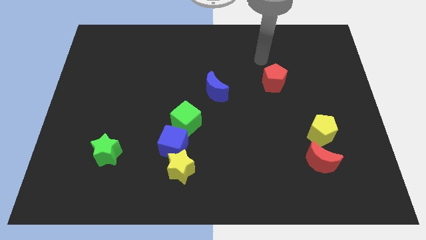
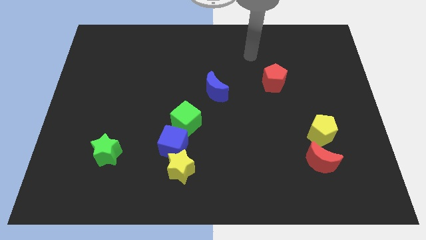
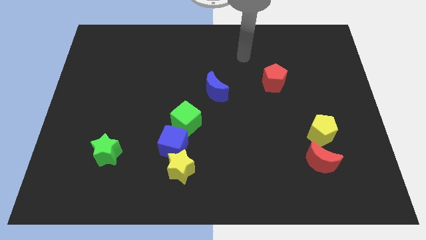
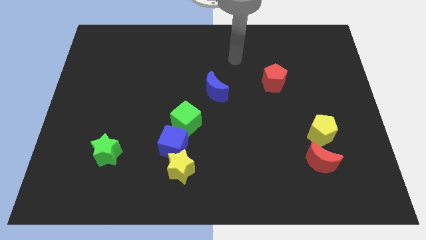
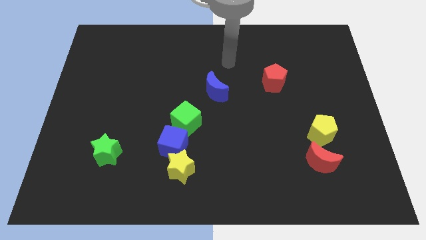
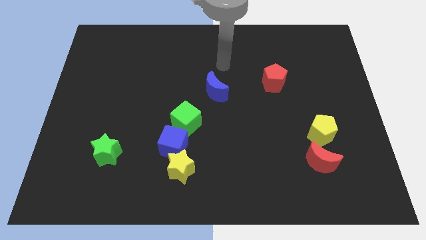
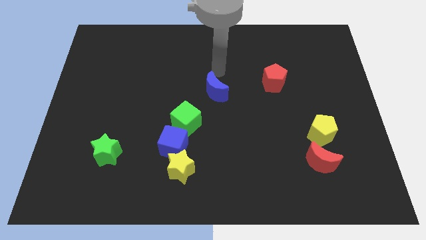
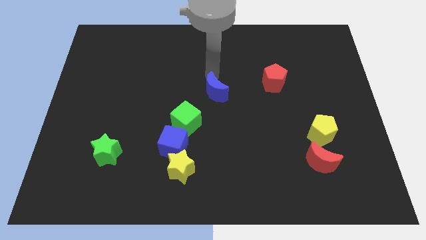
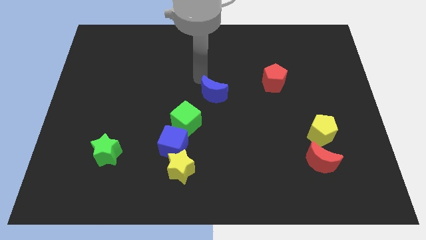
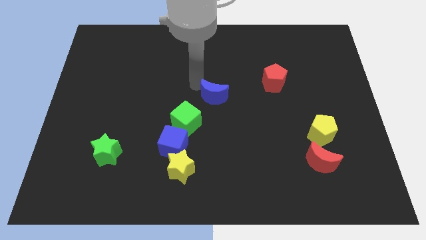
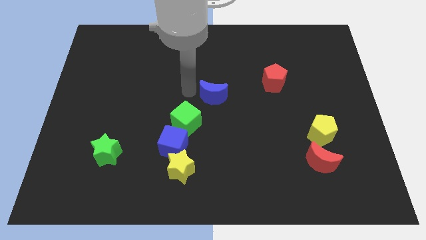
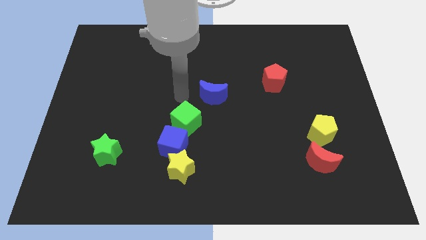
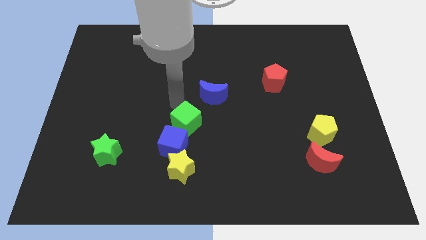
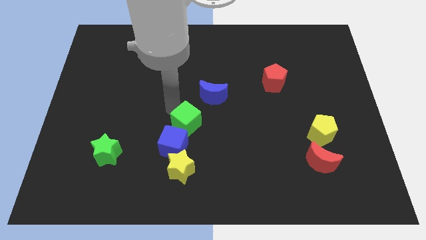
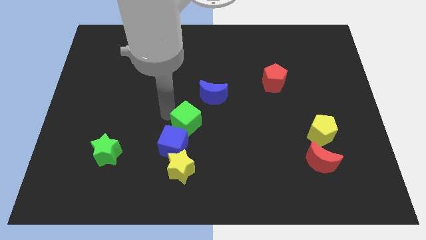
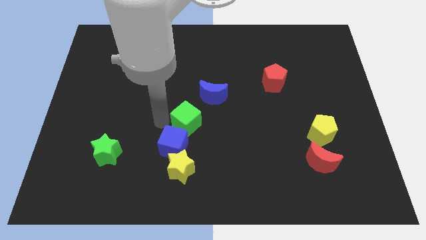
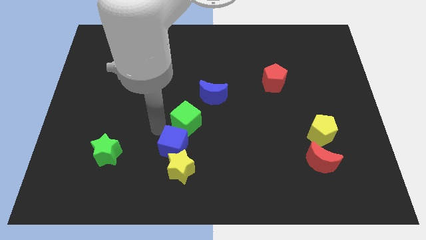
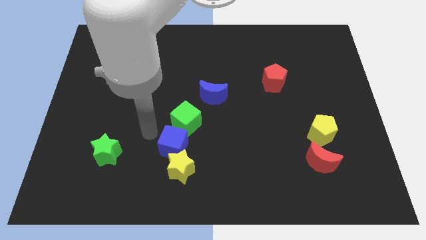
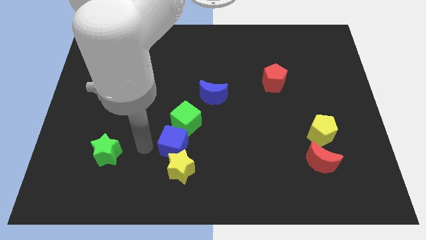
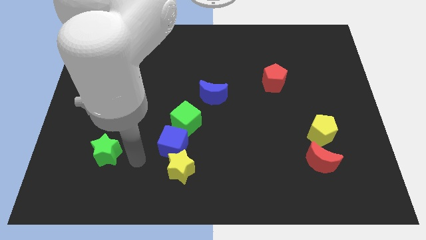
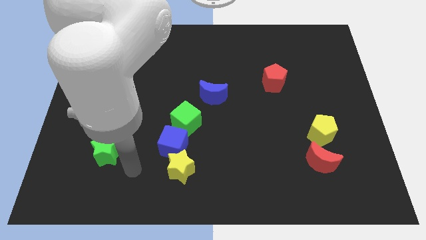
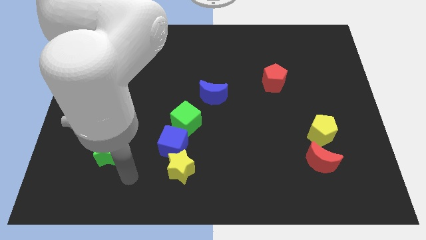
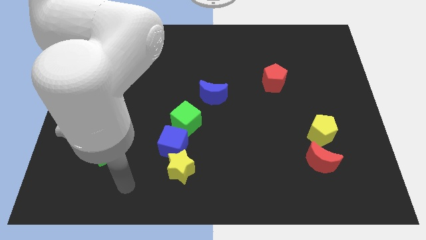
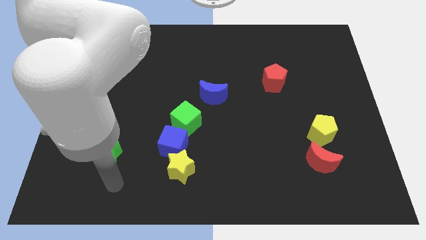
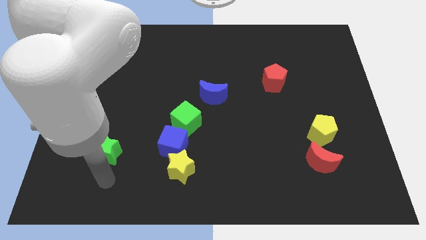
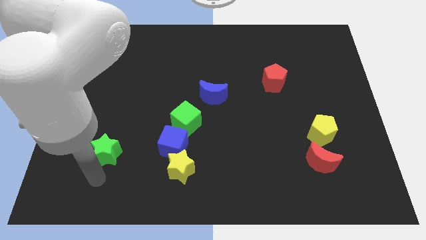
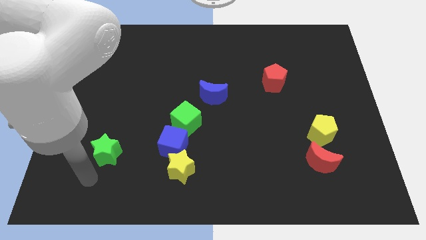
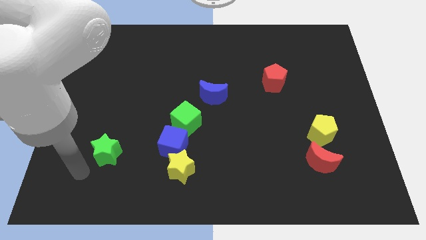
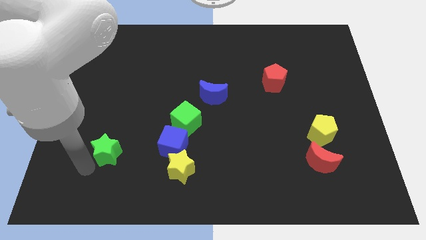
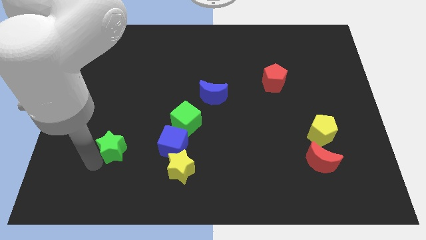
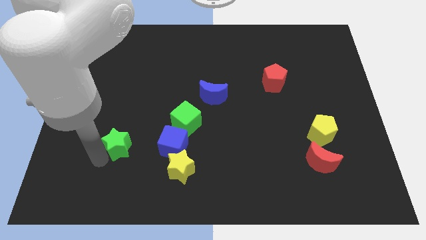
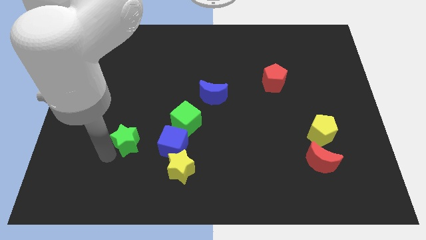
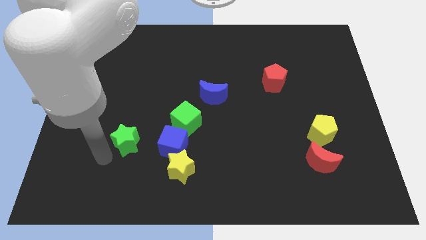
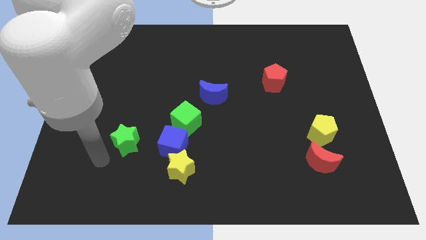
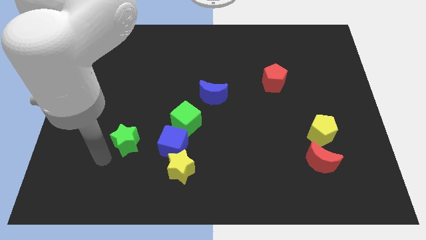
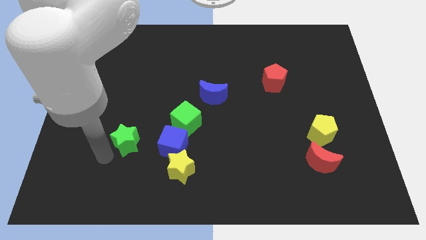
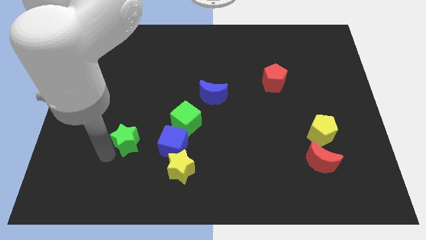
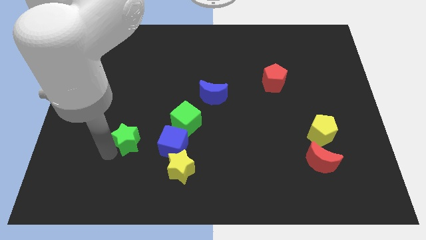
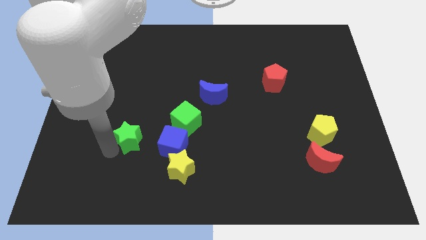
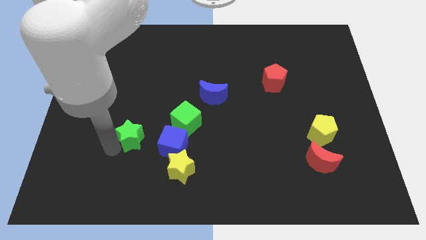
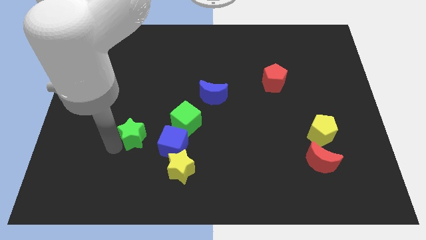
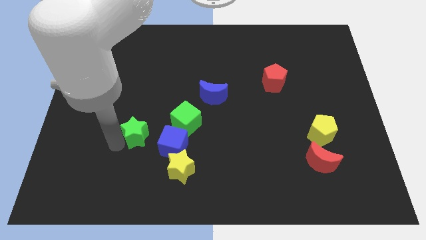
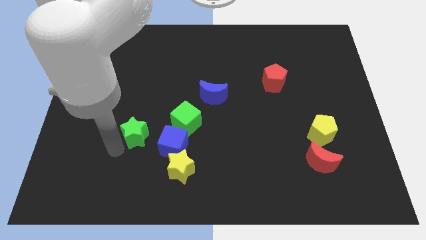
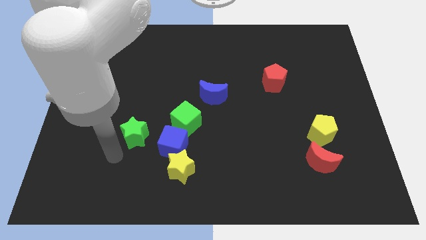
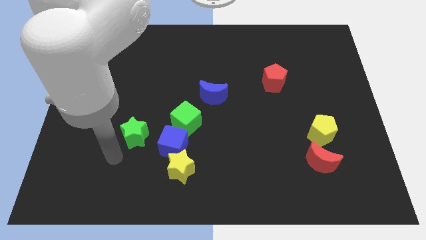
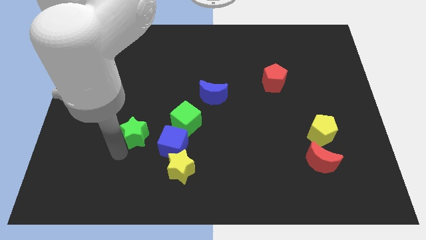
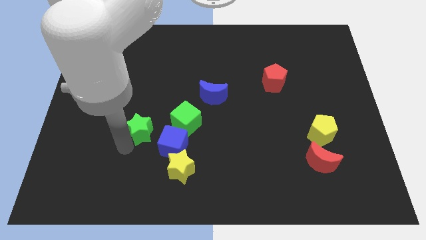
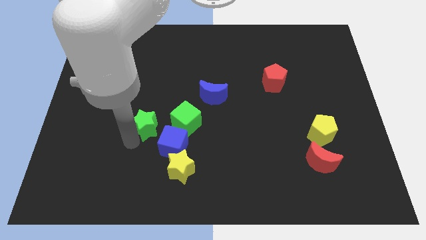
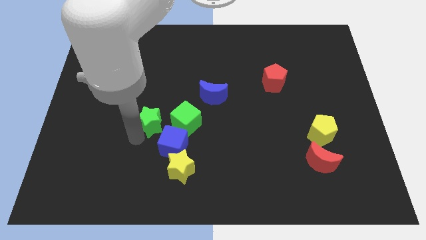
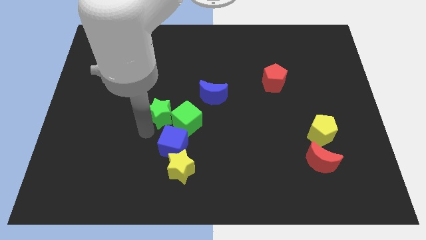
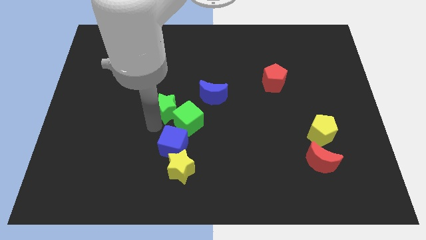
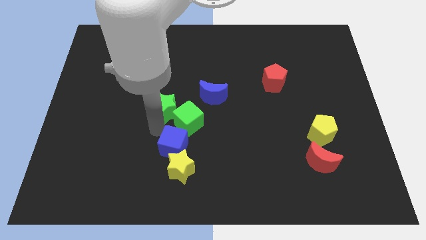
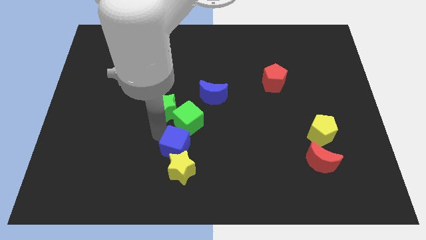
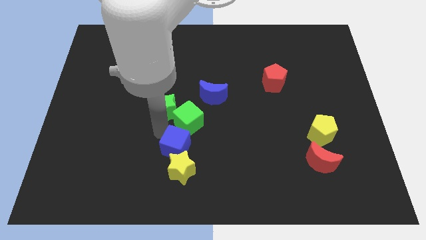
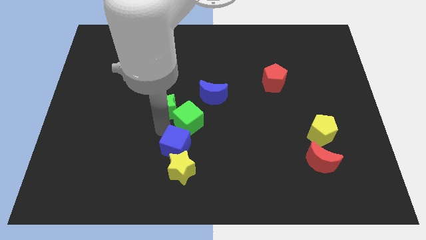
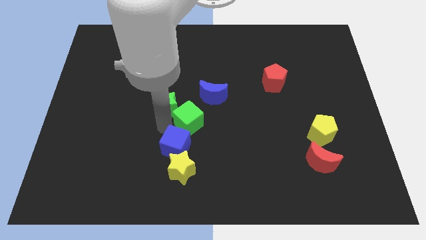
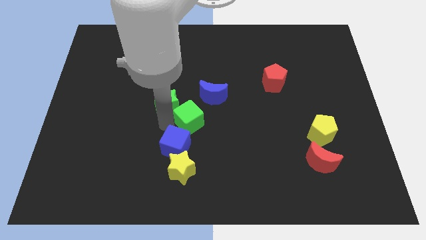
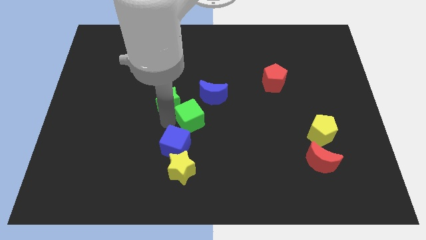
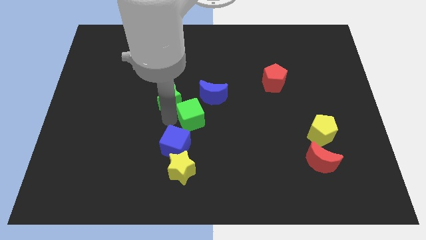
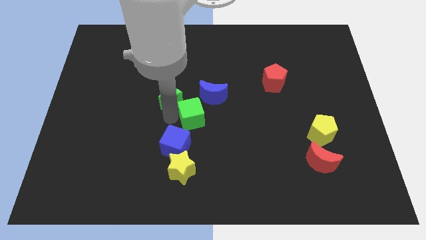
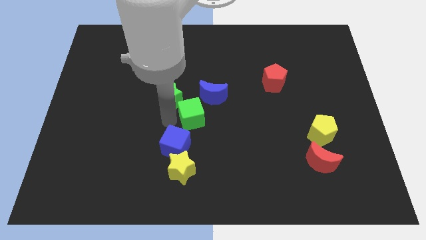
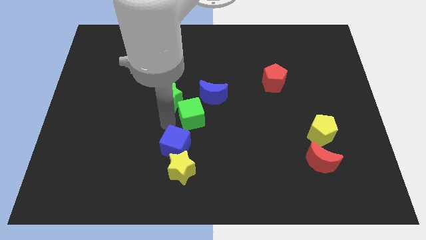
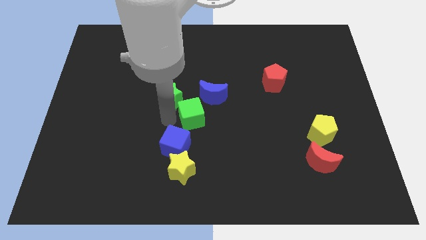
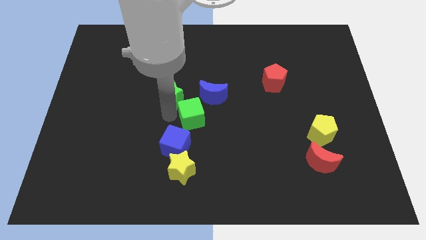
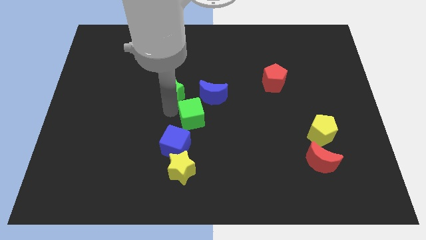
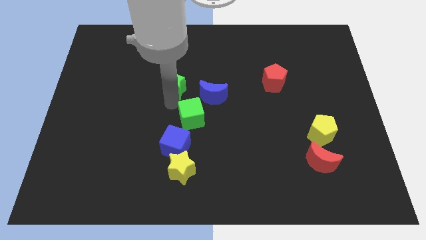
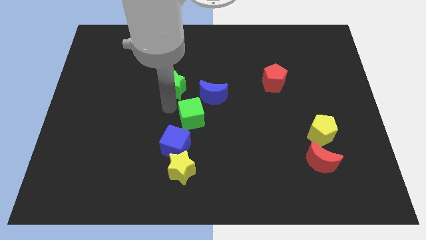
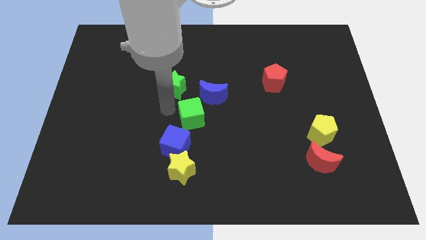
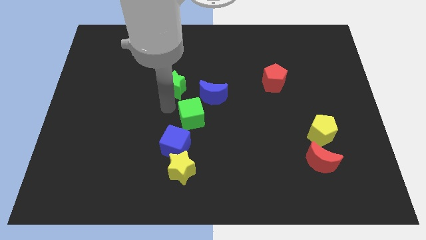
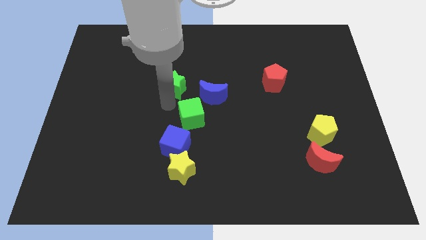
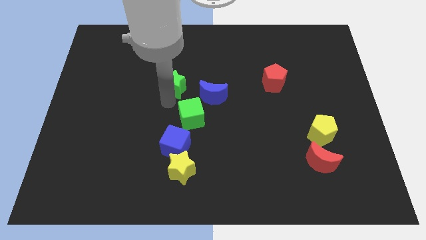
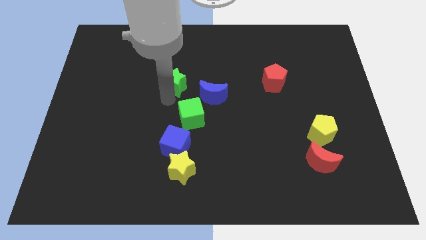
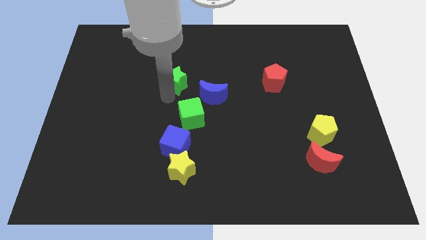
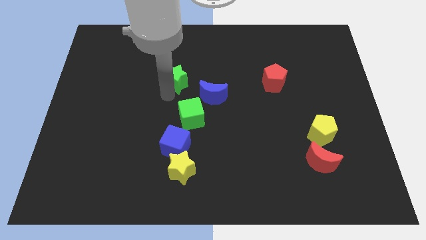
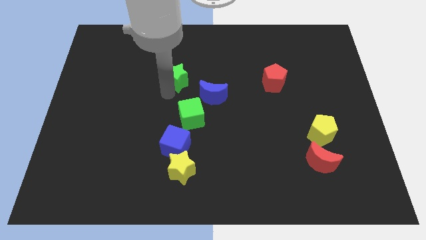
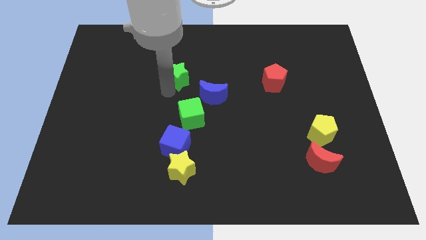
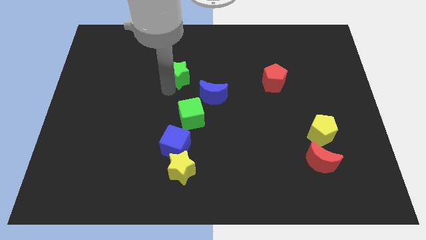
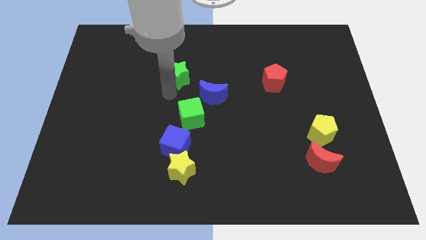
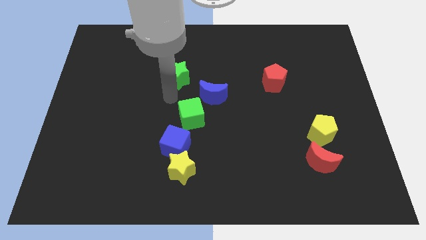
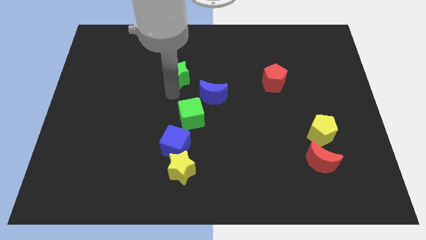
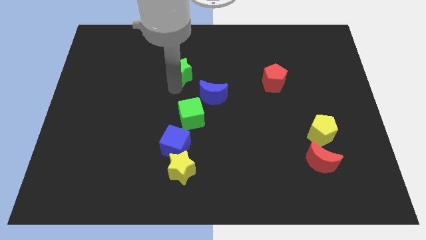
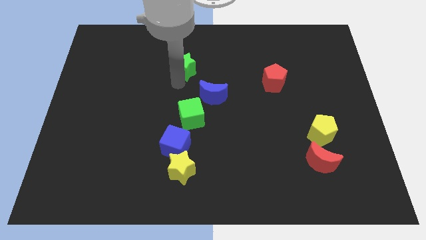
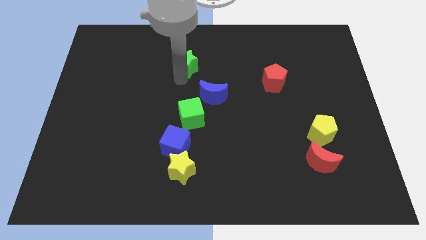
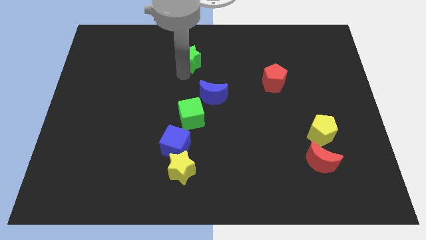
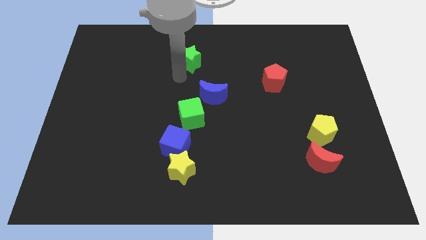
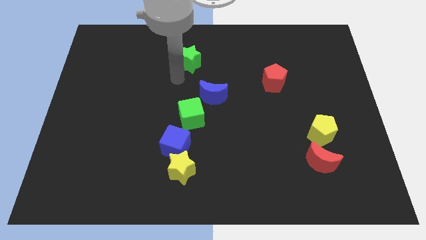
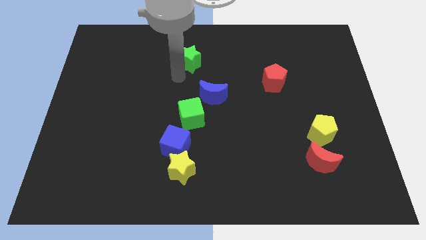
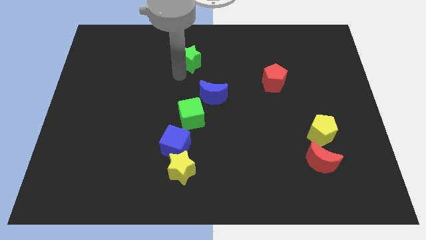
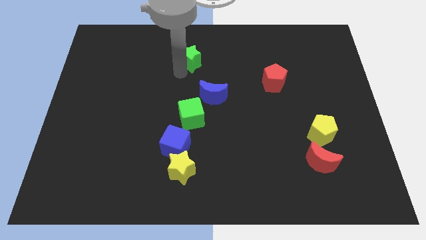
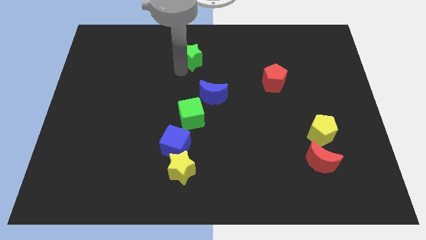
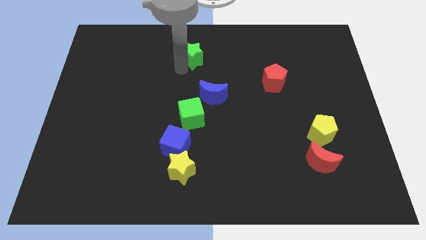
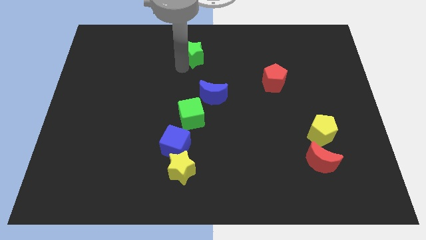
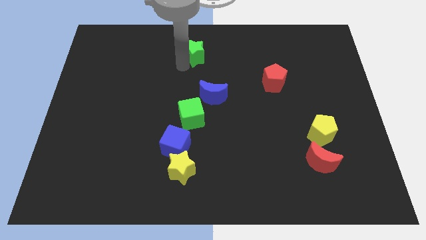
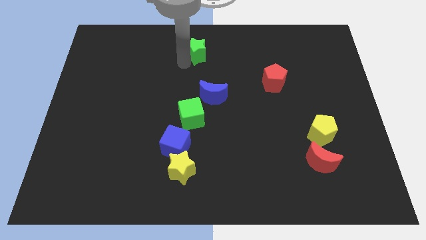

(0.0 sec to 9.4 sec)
slide the green star to the top side
